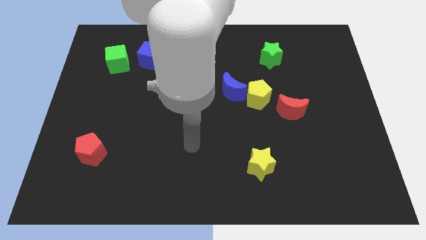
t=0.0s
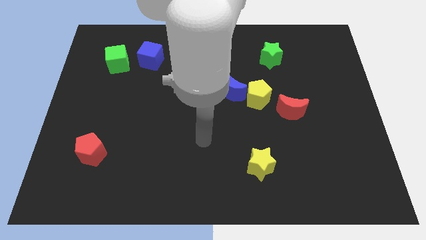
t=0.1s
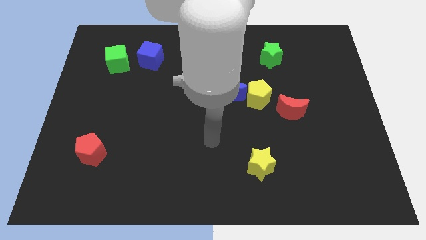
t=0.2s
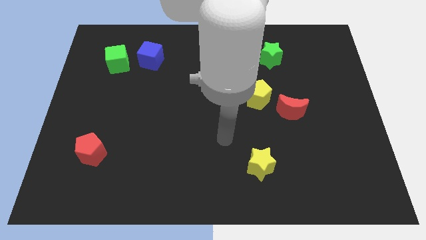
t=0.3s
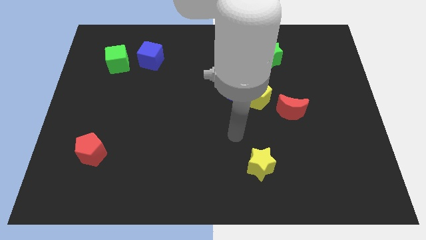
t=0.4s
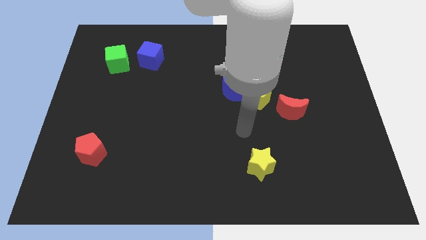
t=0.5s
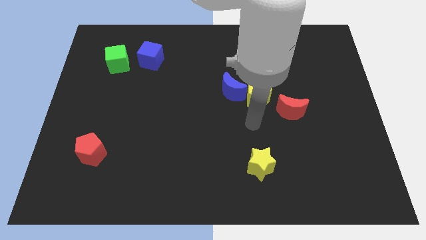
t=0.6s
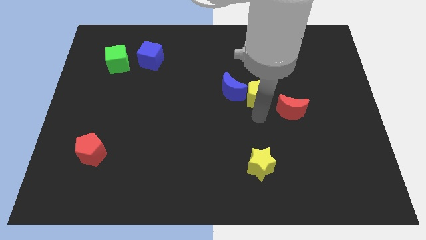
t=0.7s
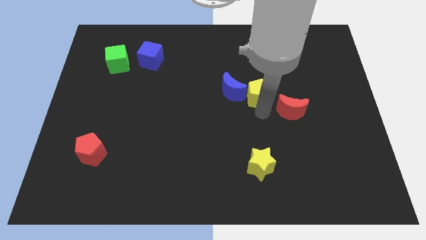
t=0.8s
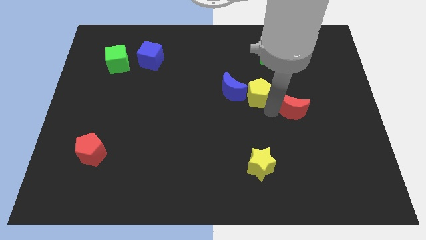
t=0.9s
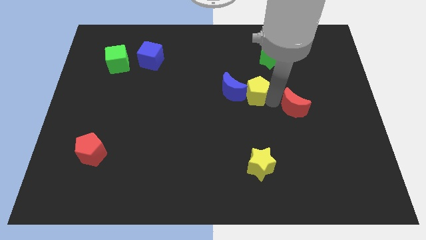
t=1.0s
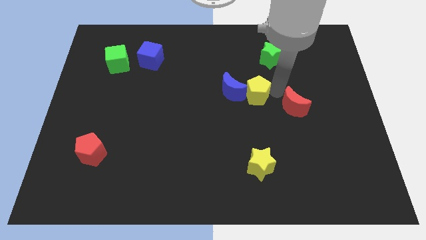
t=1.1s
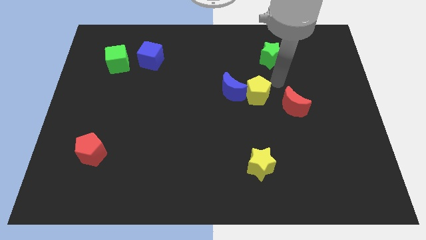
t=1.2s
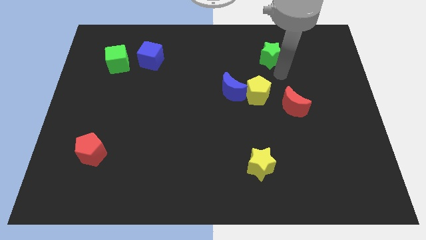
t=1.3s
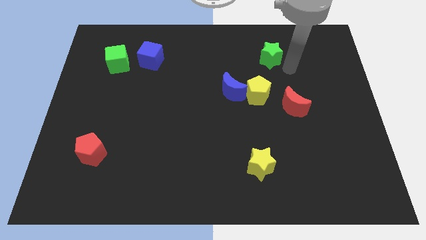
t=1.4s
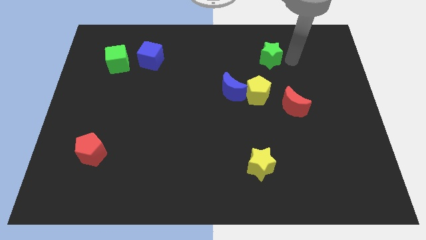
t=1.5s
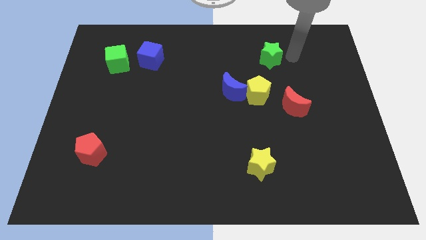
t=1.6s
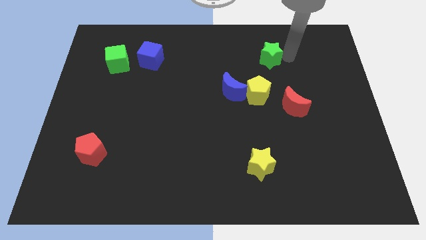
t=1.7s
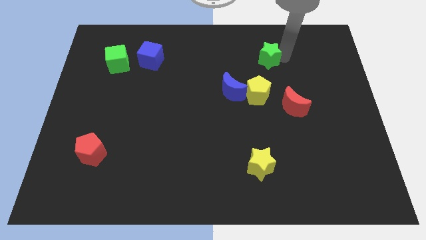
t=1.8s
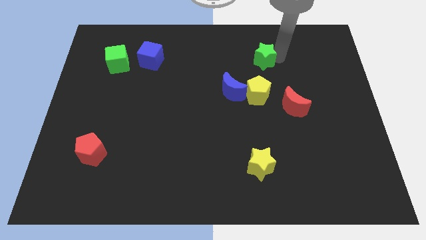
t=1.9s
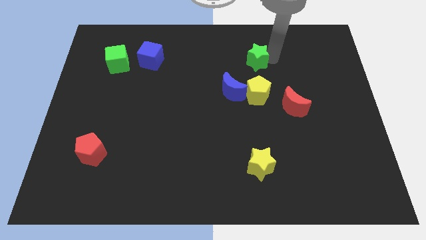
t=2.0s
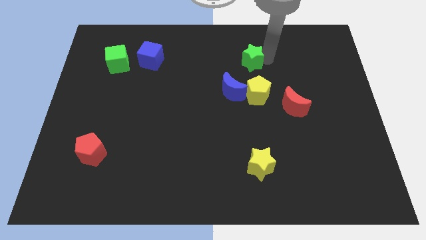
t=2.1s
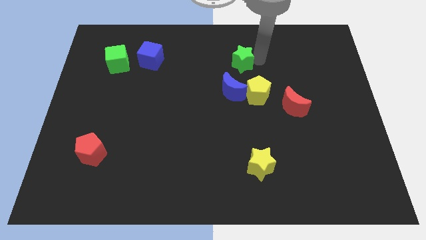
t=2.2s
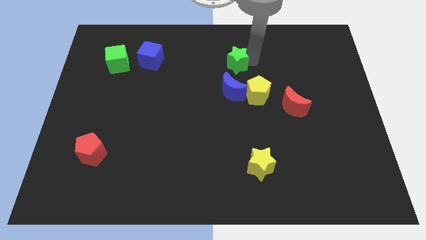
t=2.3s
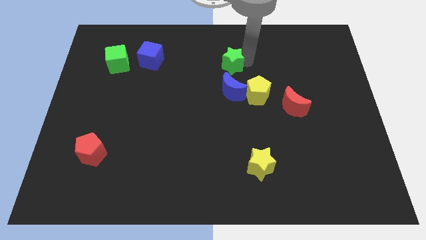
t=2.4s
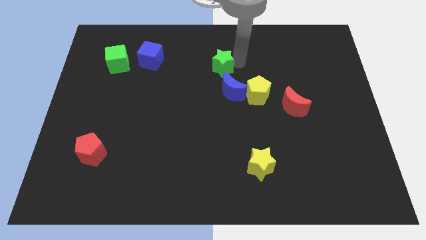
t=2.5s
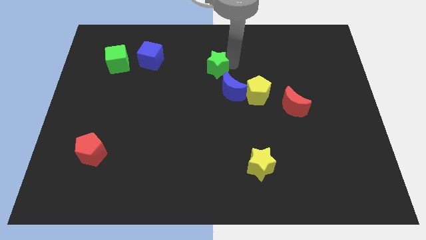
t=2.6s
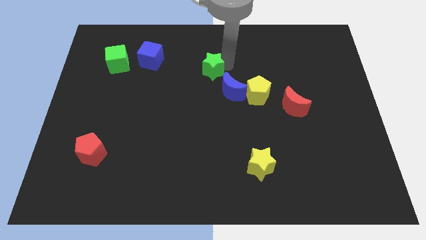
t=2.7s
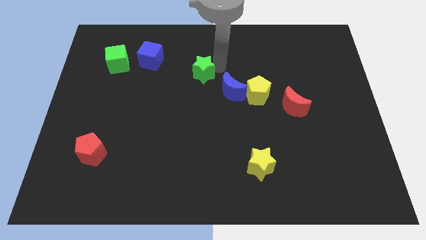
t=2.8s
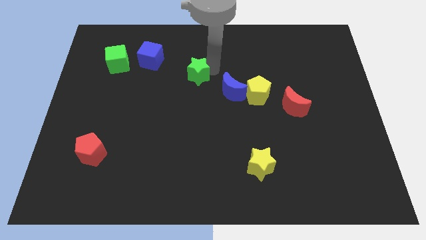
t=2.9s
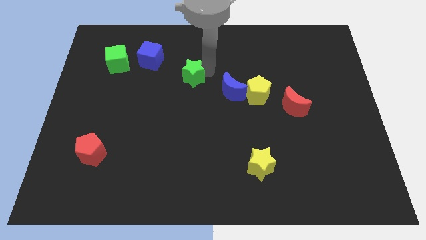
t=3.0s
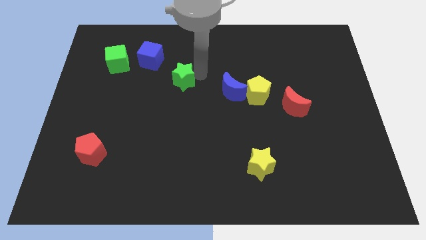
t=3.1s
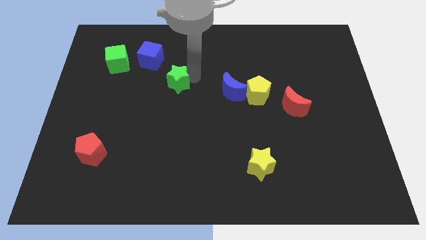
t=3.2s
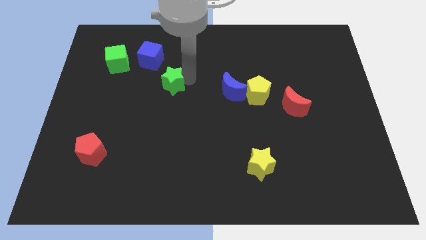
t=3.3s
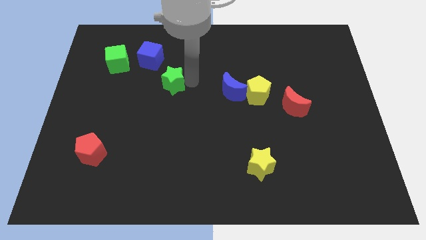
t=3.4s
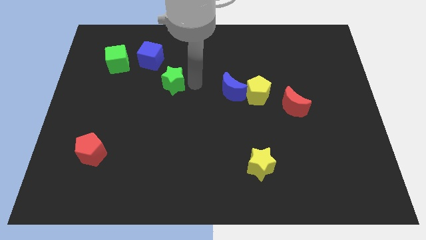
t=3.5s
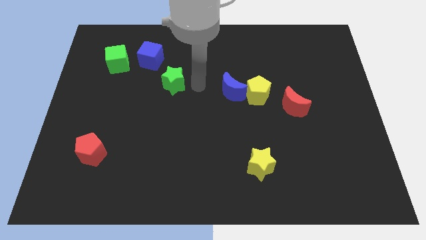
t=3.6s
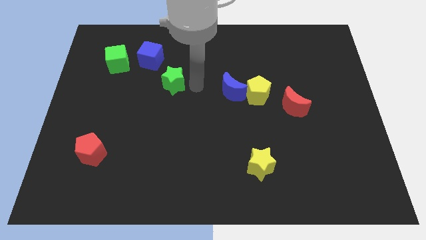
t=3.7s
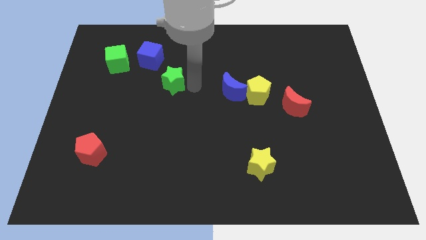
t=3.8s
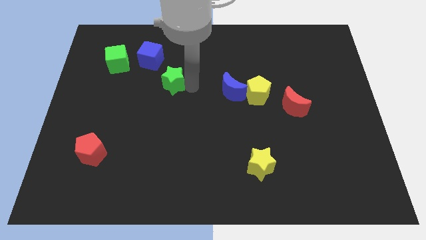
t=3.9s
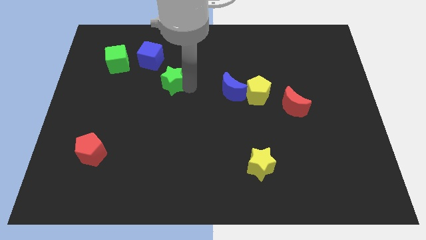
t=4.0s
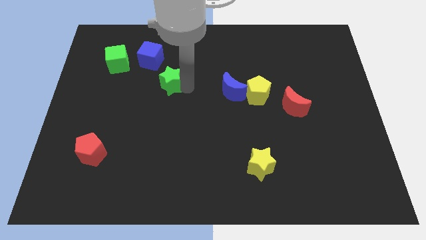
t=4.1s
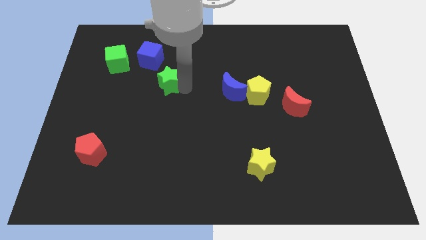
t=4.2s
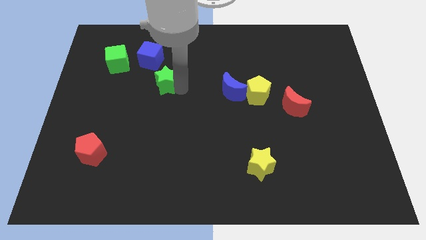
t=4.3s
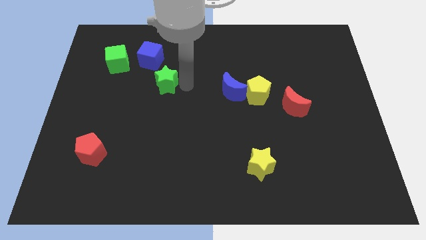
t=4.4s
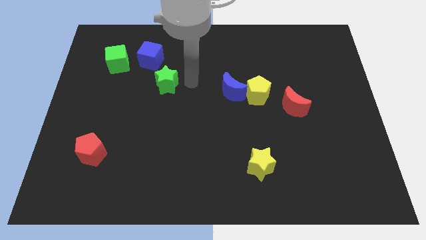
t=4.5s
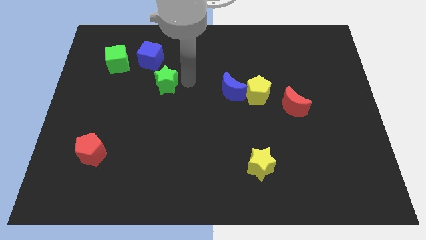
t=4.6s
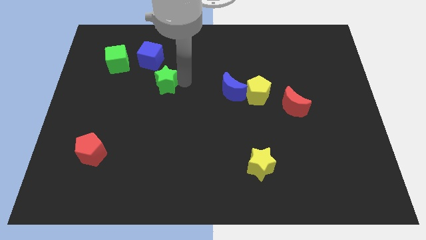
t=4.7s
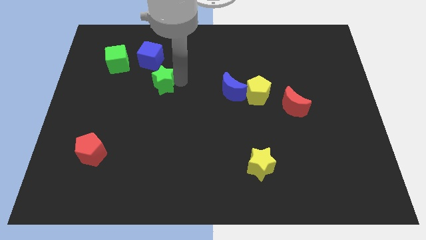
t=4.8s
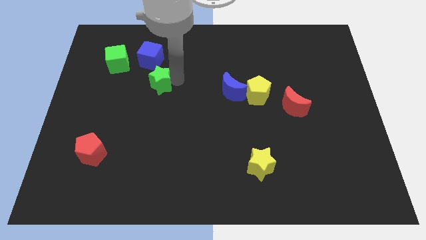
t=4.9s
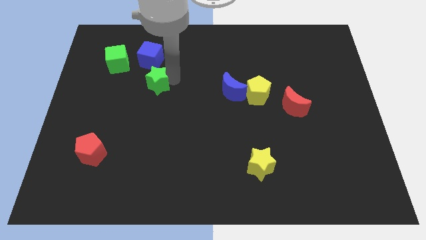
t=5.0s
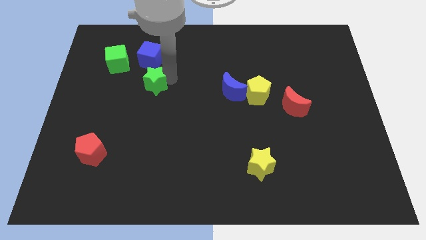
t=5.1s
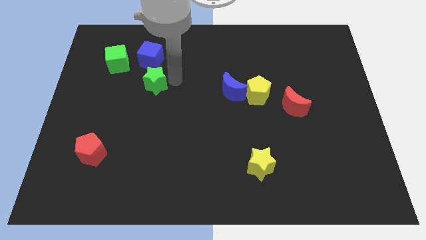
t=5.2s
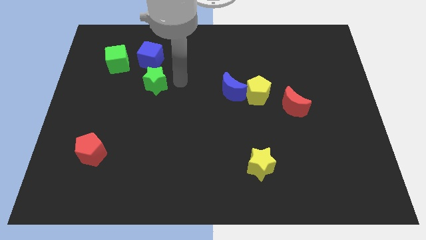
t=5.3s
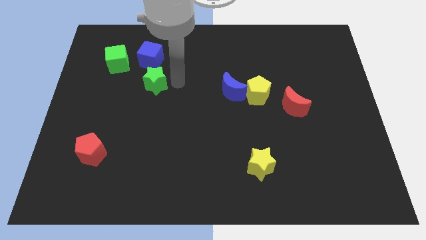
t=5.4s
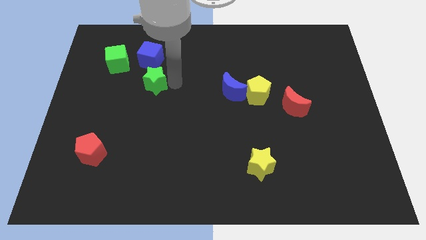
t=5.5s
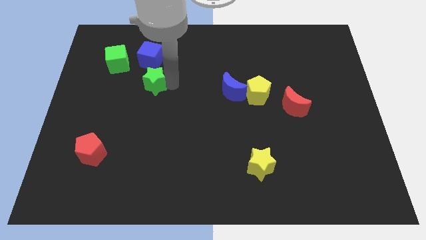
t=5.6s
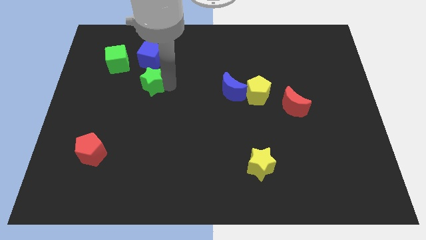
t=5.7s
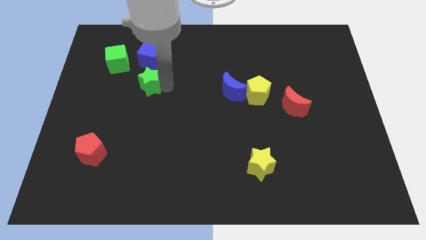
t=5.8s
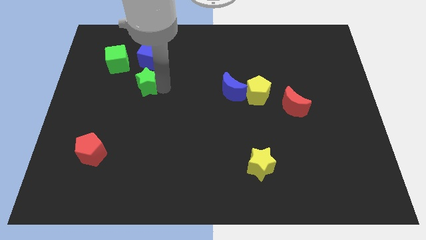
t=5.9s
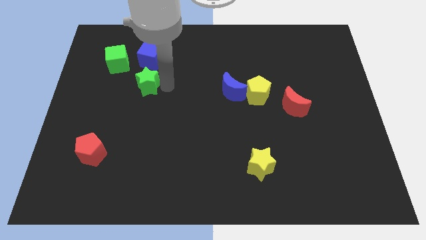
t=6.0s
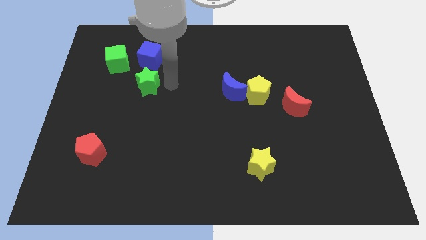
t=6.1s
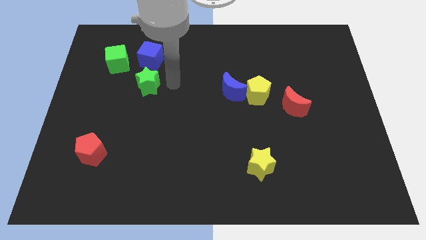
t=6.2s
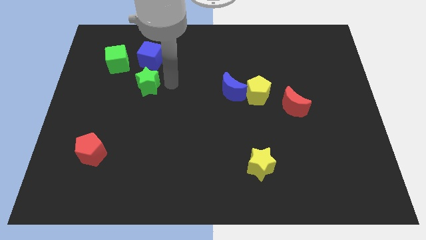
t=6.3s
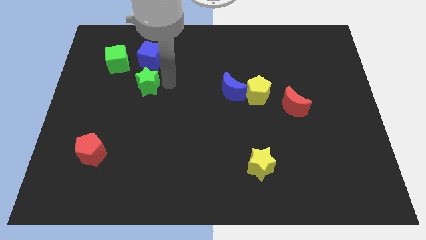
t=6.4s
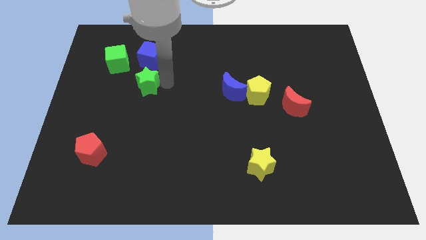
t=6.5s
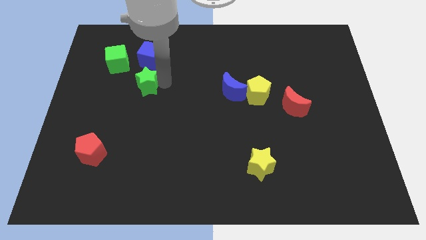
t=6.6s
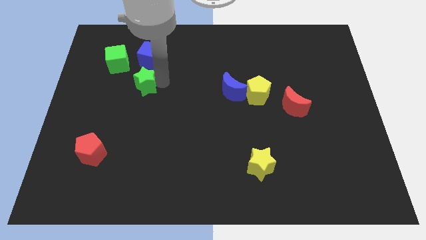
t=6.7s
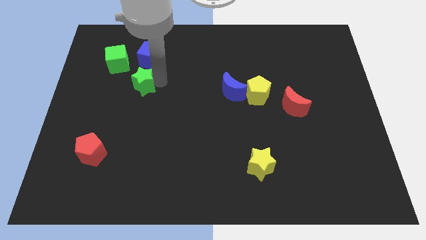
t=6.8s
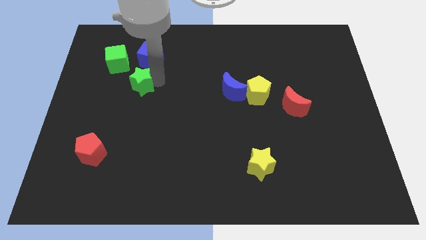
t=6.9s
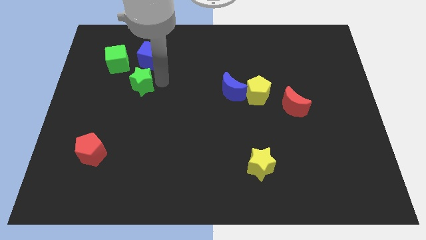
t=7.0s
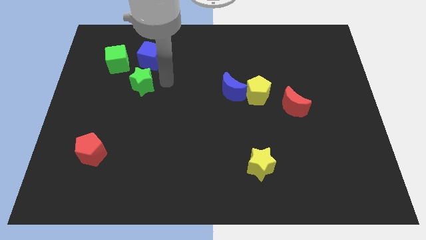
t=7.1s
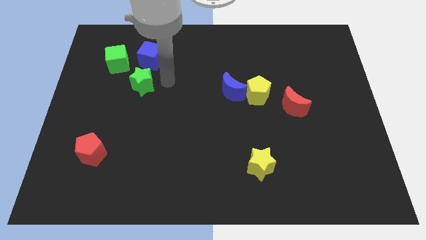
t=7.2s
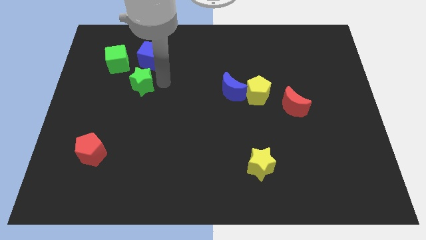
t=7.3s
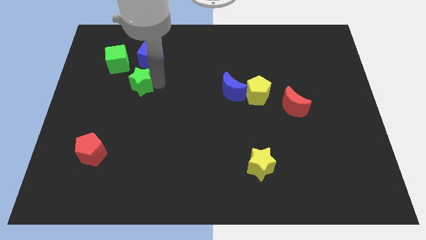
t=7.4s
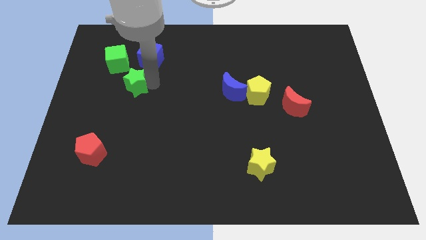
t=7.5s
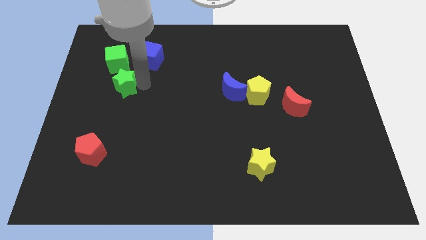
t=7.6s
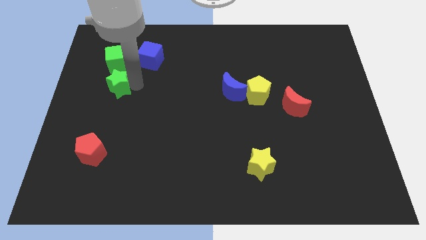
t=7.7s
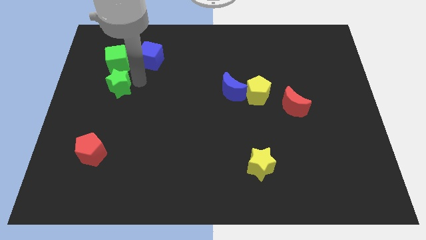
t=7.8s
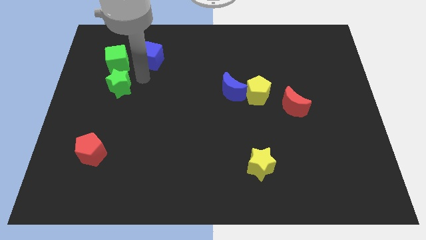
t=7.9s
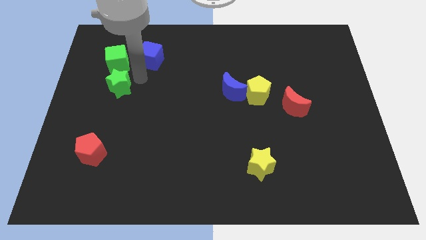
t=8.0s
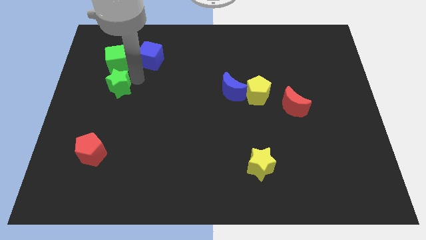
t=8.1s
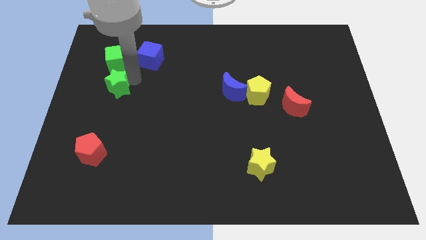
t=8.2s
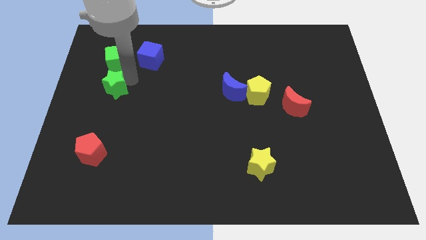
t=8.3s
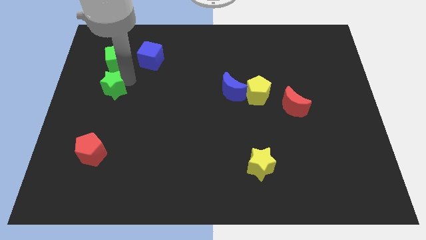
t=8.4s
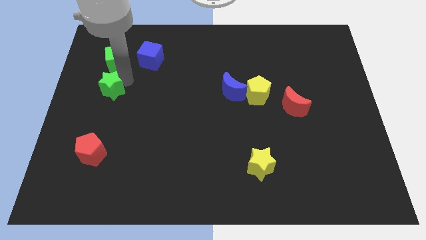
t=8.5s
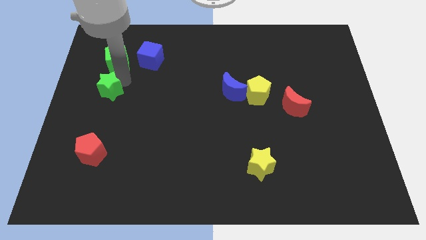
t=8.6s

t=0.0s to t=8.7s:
slide the green star to the center left
